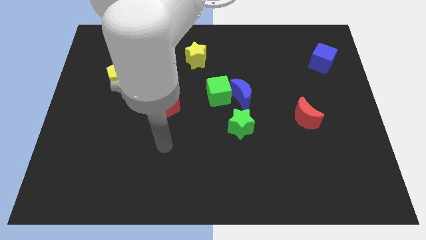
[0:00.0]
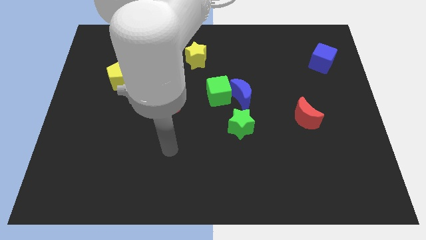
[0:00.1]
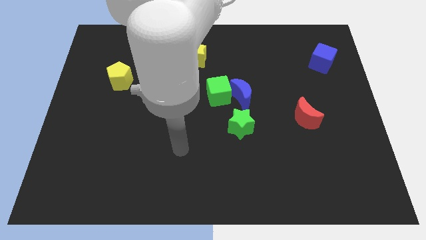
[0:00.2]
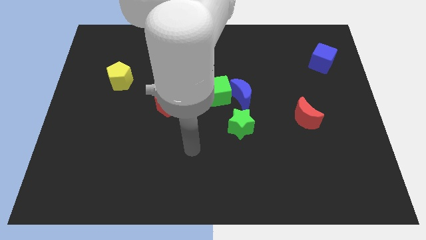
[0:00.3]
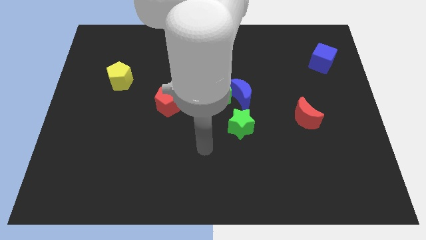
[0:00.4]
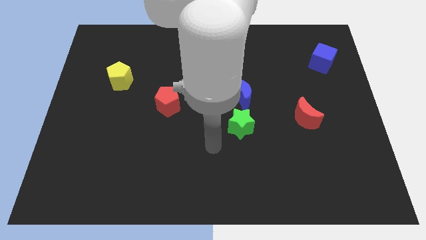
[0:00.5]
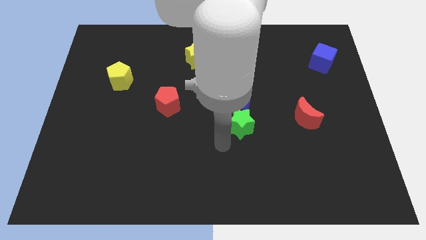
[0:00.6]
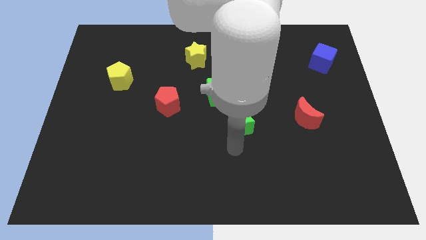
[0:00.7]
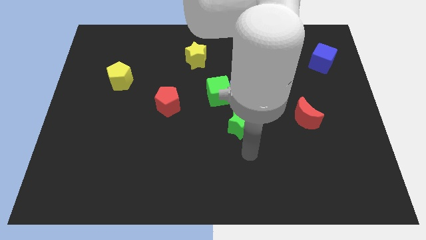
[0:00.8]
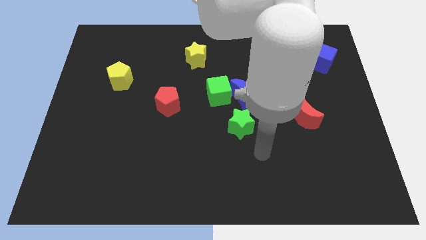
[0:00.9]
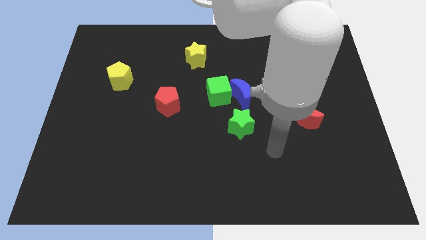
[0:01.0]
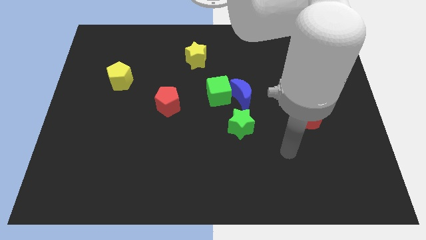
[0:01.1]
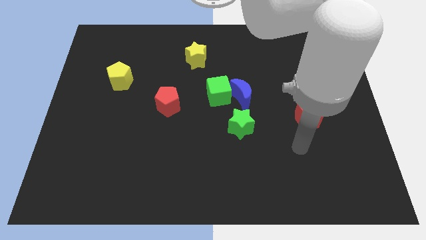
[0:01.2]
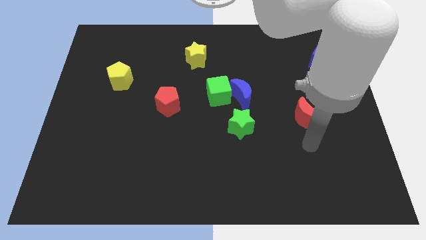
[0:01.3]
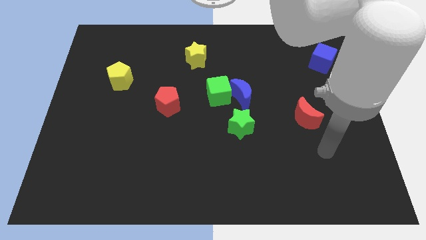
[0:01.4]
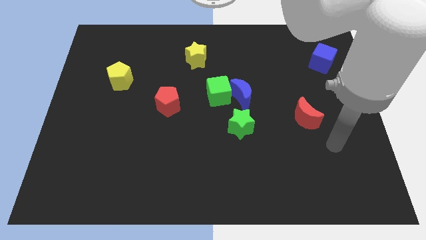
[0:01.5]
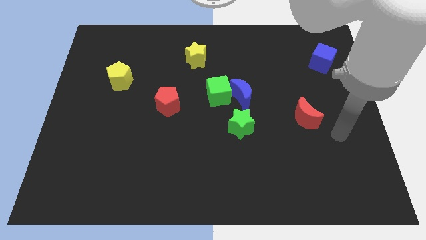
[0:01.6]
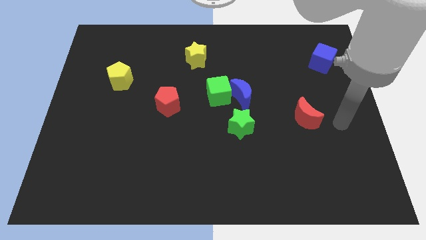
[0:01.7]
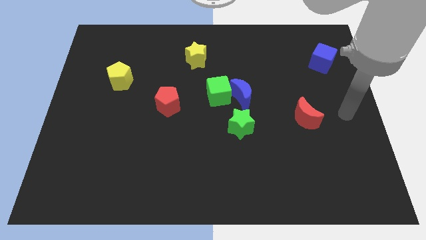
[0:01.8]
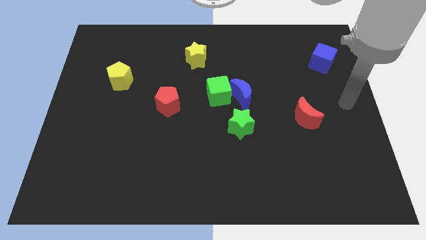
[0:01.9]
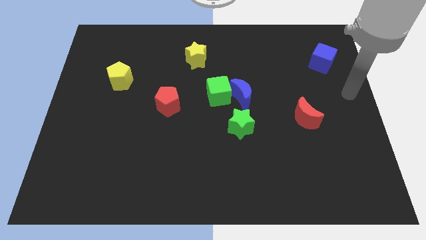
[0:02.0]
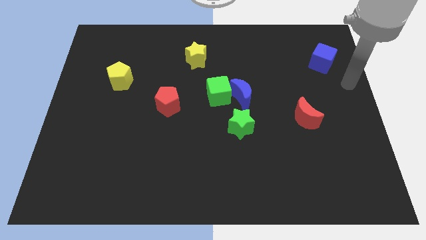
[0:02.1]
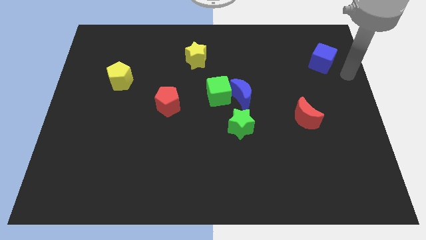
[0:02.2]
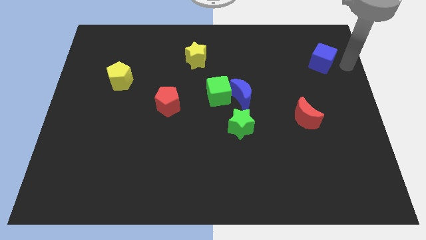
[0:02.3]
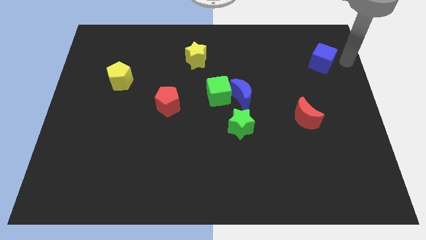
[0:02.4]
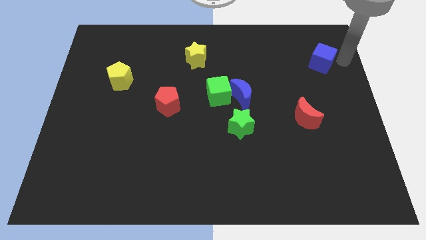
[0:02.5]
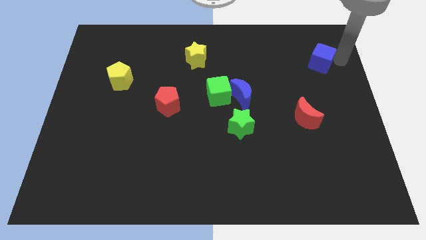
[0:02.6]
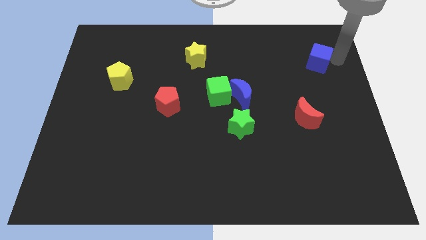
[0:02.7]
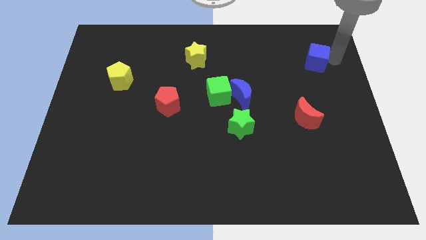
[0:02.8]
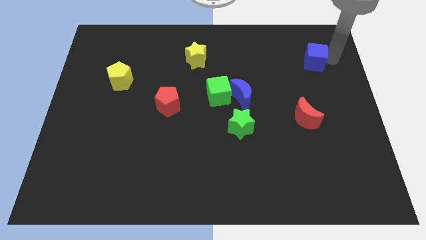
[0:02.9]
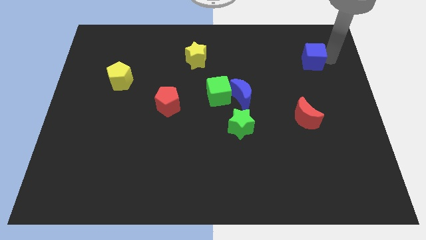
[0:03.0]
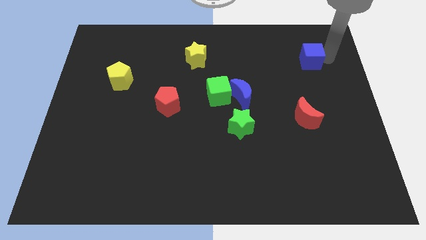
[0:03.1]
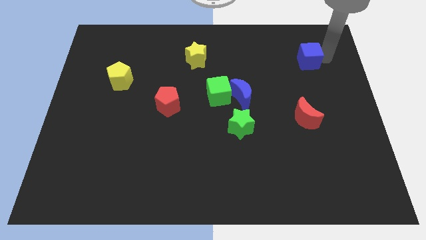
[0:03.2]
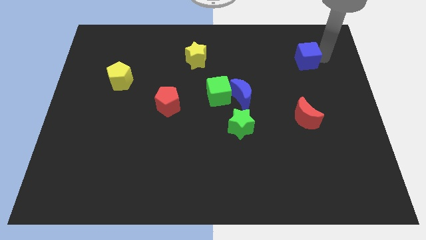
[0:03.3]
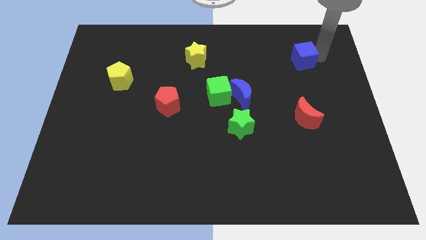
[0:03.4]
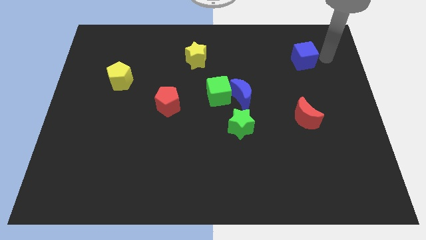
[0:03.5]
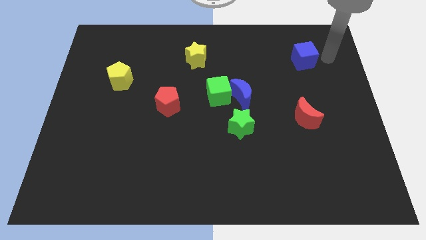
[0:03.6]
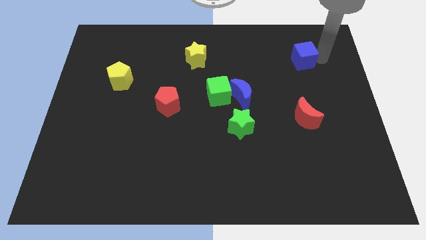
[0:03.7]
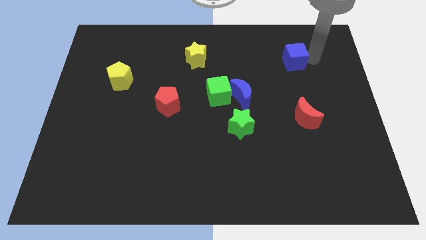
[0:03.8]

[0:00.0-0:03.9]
slide the blue cube left slightly

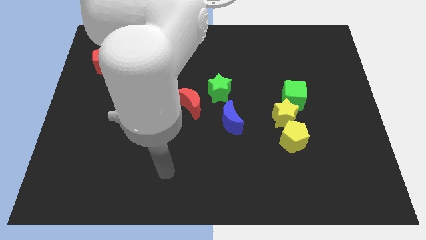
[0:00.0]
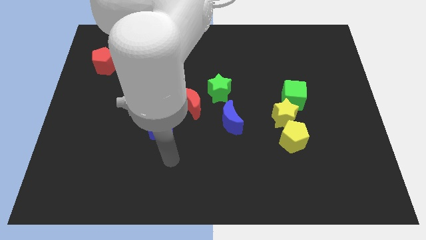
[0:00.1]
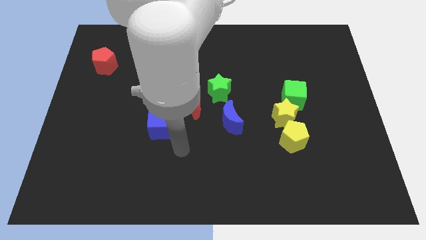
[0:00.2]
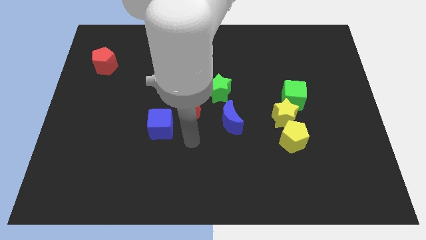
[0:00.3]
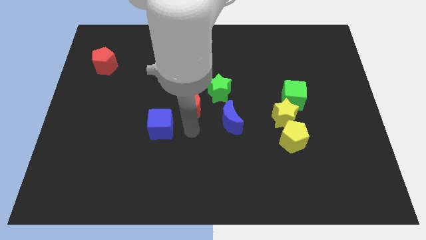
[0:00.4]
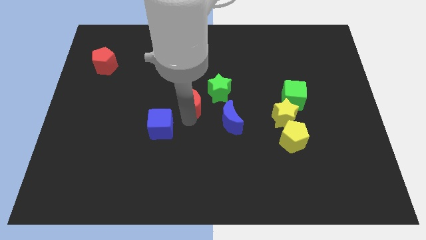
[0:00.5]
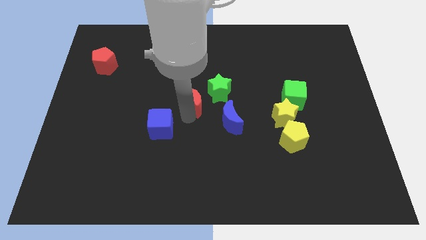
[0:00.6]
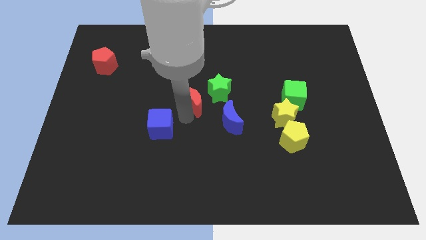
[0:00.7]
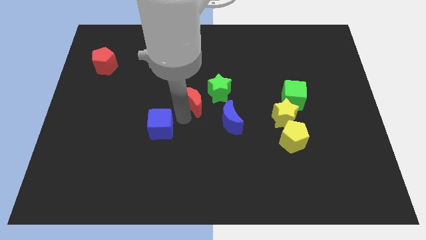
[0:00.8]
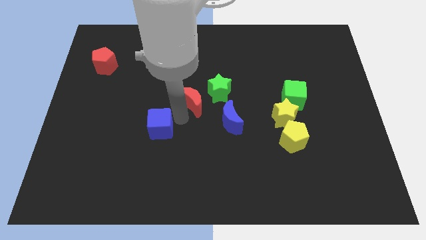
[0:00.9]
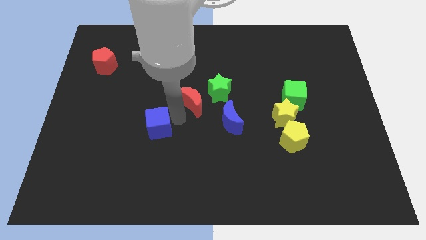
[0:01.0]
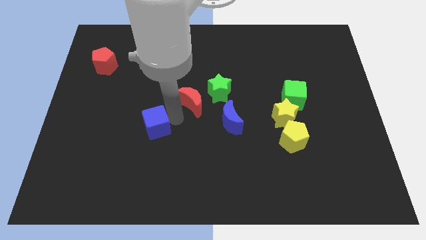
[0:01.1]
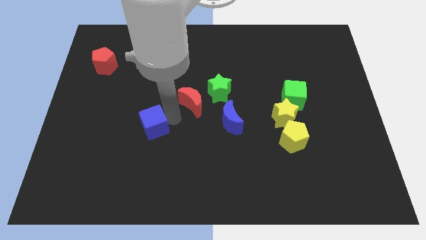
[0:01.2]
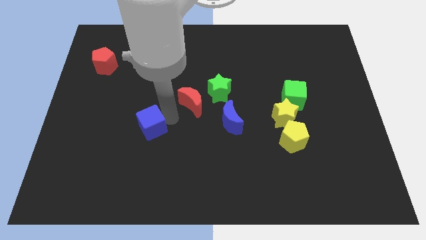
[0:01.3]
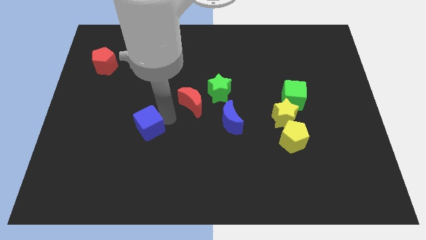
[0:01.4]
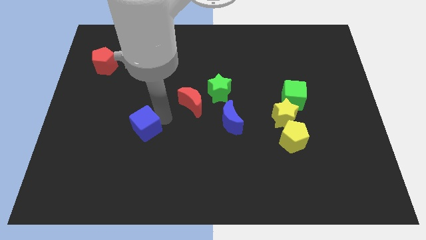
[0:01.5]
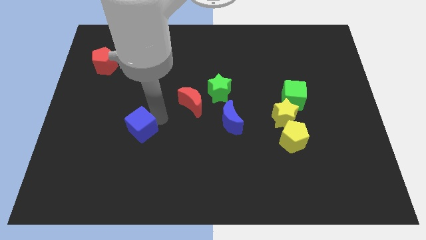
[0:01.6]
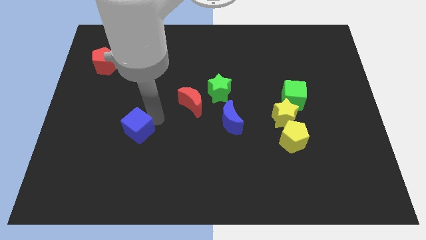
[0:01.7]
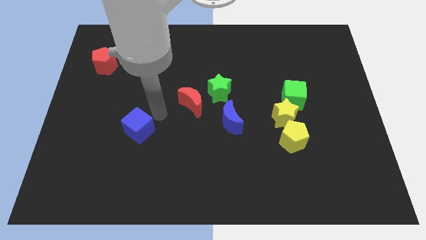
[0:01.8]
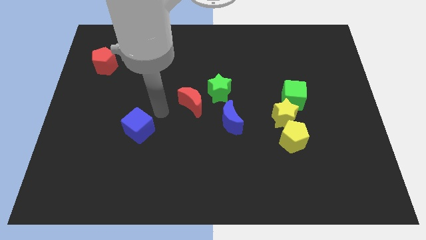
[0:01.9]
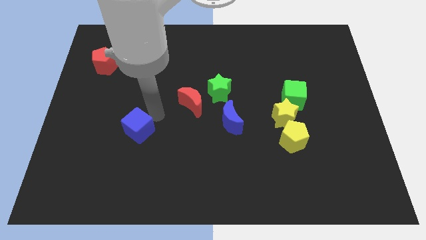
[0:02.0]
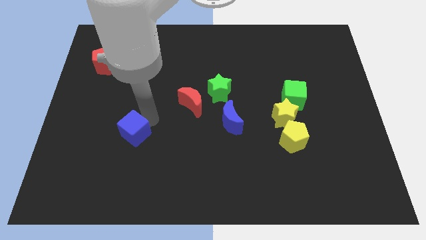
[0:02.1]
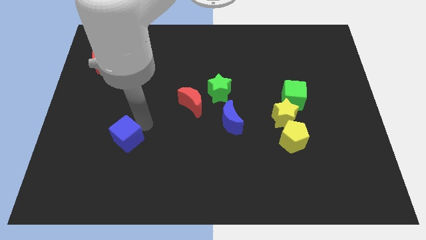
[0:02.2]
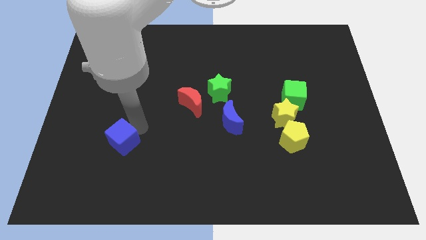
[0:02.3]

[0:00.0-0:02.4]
slightly move the blue cube downwards and then left

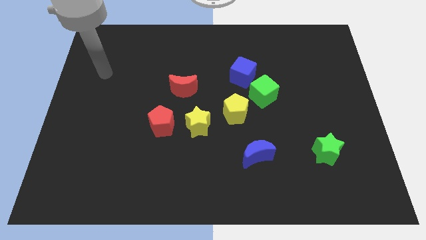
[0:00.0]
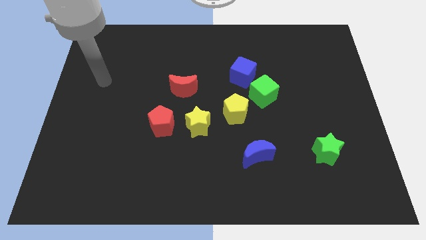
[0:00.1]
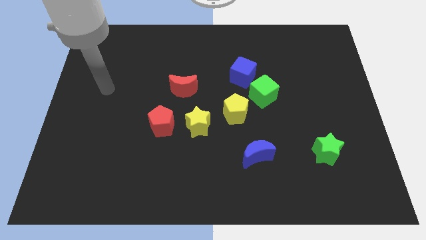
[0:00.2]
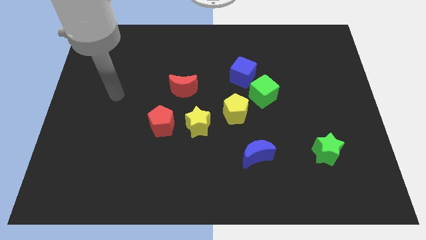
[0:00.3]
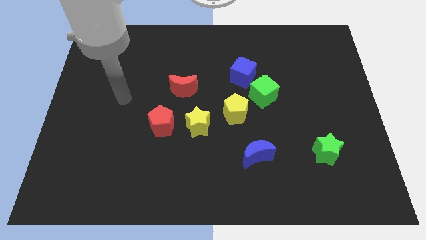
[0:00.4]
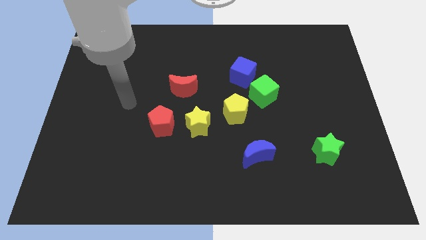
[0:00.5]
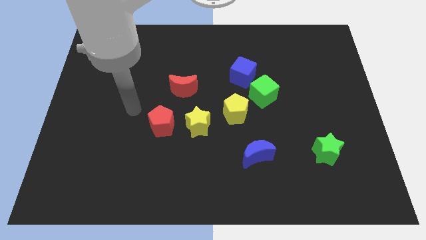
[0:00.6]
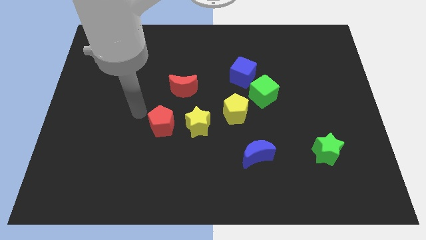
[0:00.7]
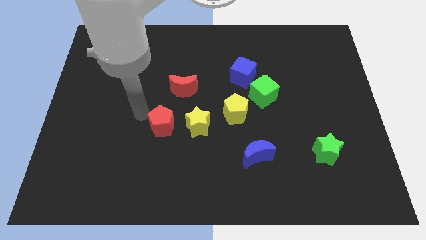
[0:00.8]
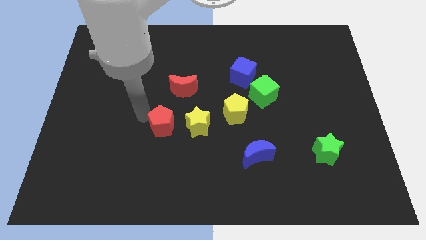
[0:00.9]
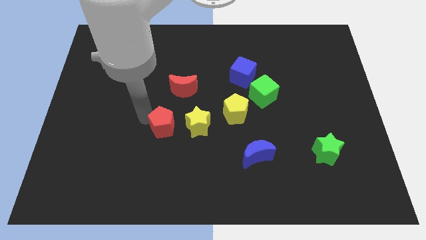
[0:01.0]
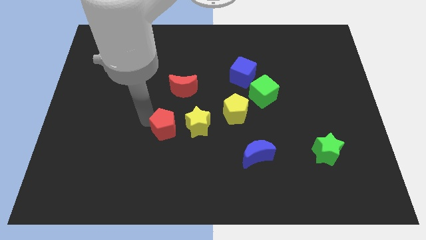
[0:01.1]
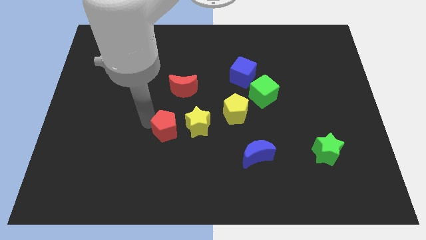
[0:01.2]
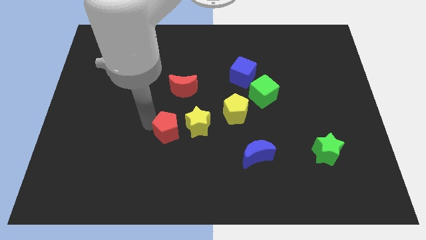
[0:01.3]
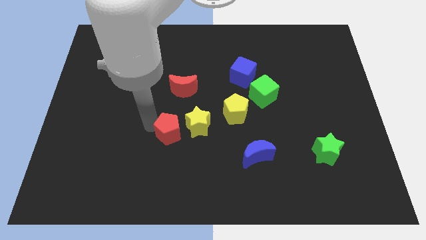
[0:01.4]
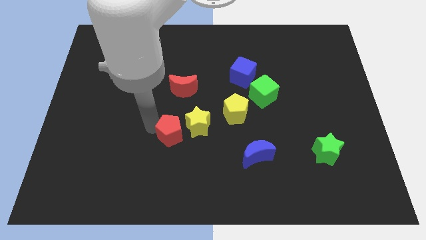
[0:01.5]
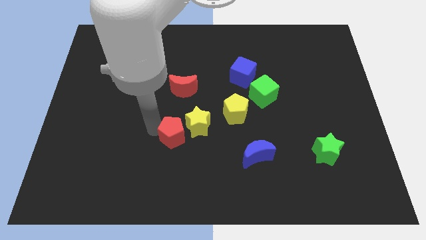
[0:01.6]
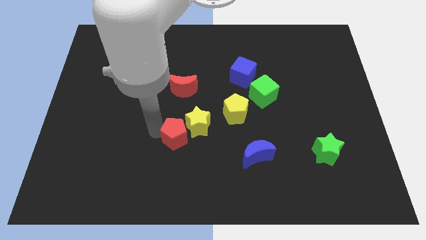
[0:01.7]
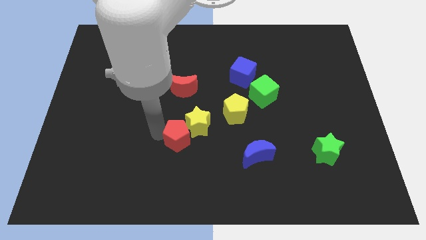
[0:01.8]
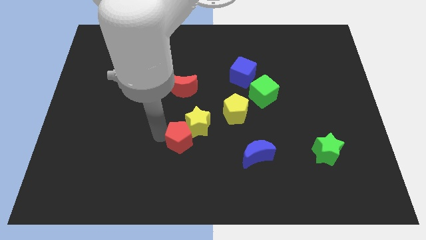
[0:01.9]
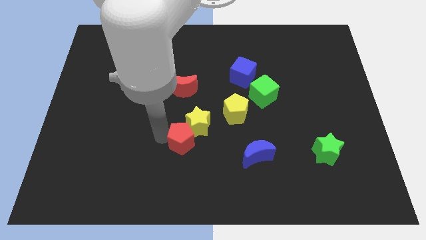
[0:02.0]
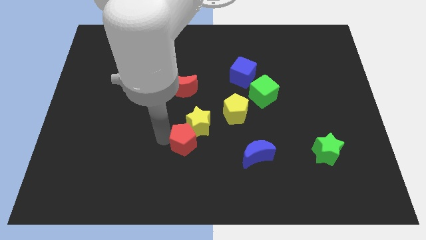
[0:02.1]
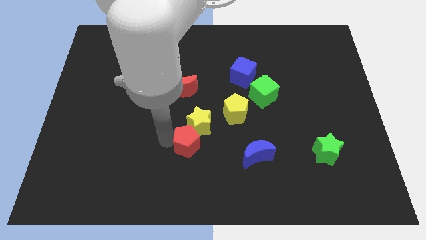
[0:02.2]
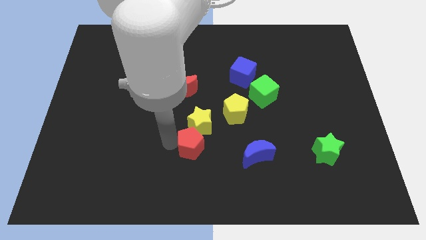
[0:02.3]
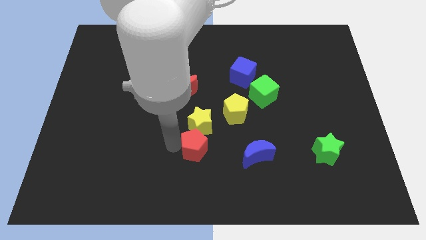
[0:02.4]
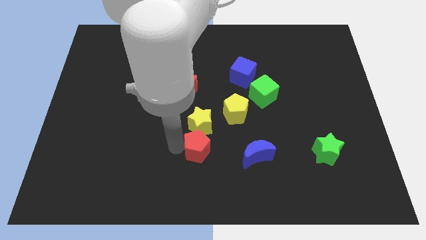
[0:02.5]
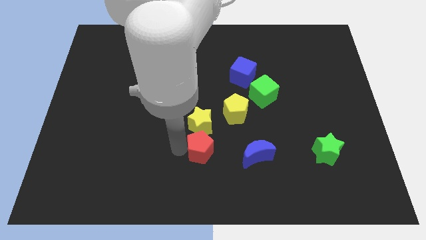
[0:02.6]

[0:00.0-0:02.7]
slide the red pentagon somewhat right
